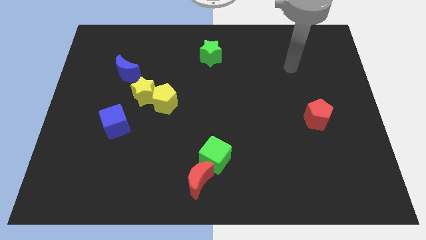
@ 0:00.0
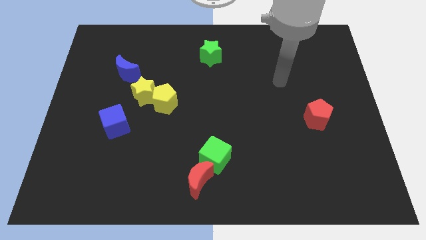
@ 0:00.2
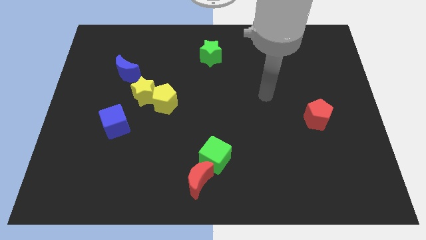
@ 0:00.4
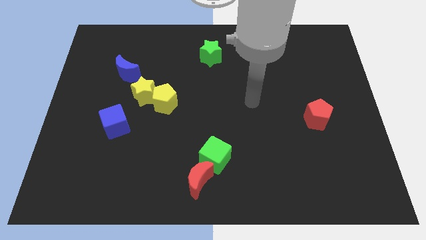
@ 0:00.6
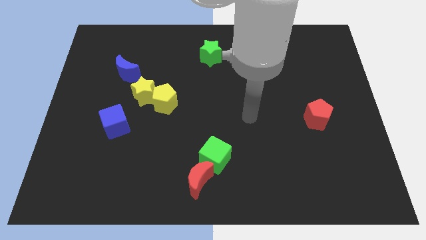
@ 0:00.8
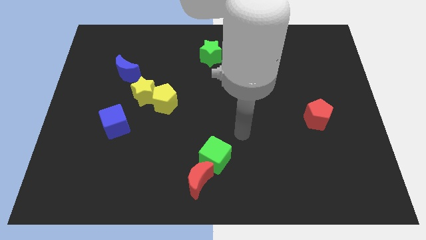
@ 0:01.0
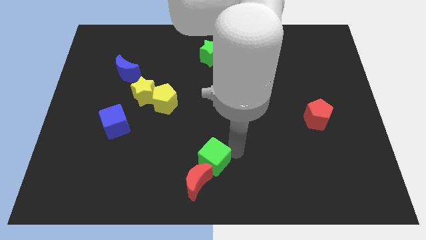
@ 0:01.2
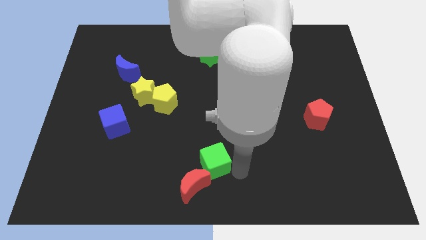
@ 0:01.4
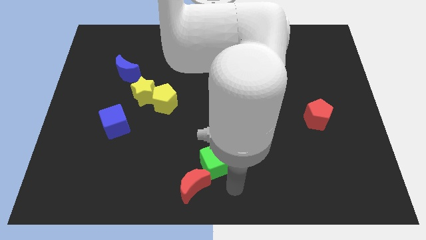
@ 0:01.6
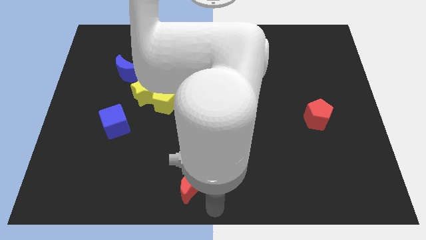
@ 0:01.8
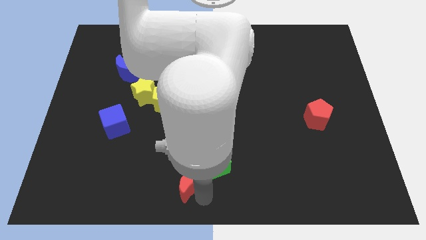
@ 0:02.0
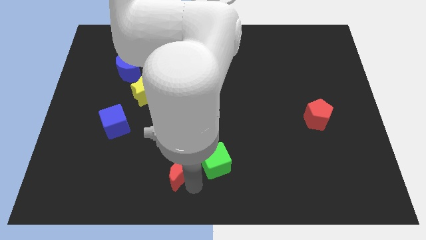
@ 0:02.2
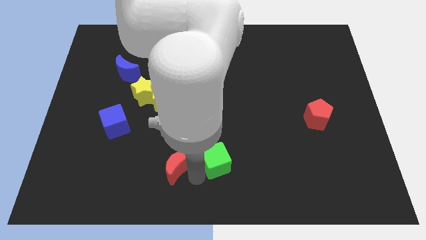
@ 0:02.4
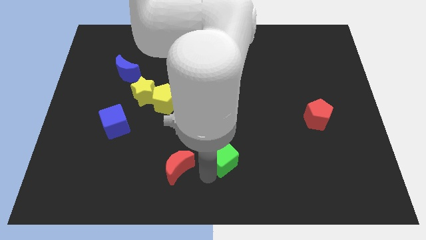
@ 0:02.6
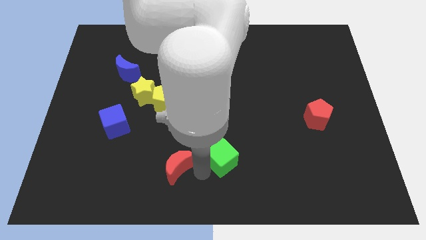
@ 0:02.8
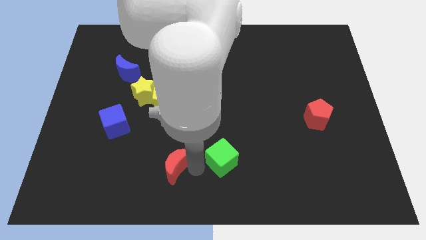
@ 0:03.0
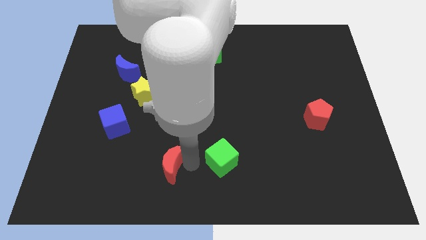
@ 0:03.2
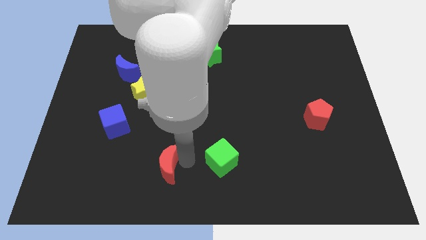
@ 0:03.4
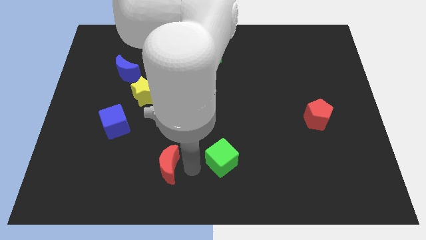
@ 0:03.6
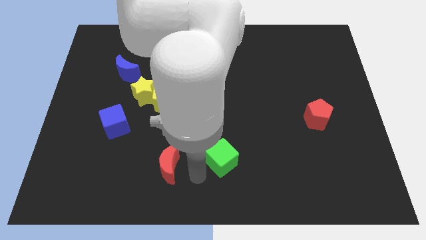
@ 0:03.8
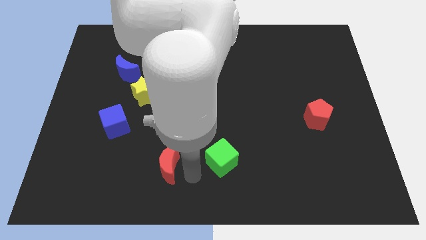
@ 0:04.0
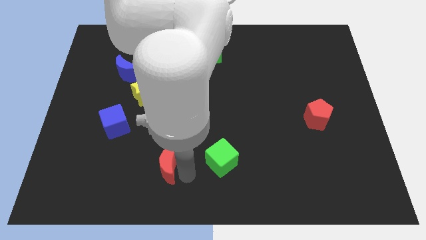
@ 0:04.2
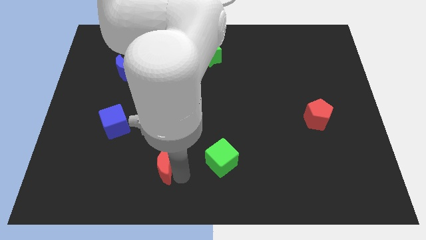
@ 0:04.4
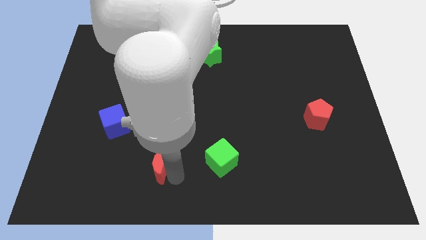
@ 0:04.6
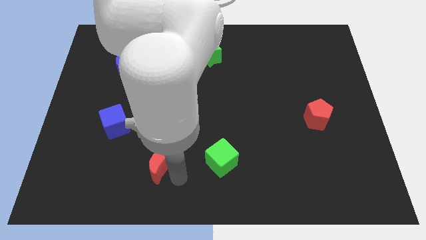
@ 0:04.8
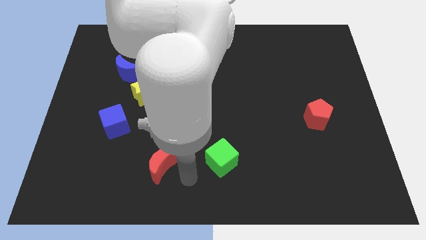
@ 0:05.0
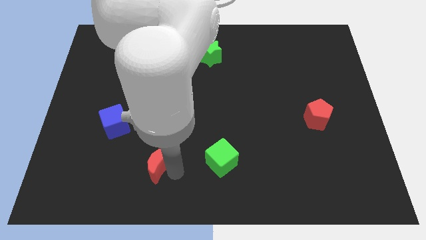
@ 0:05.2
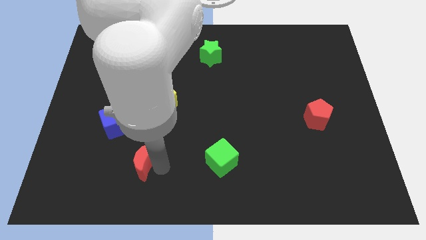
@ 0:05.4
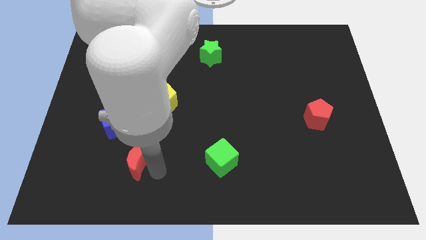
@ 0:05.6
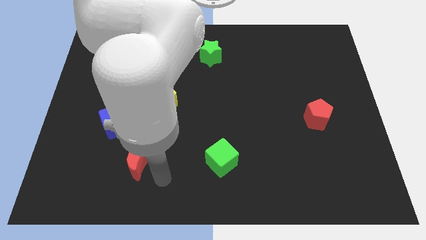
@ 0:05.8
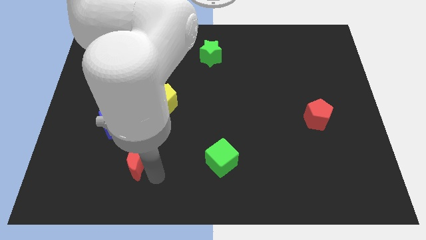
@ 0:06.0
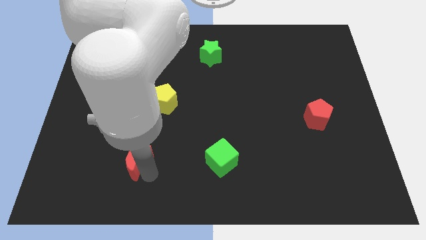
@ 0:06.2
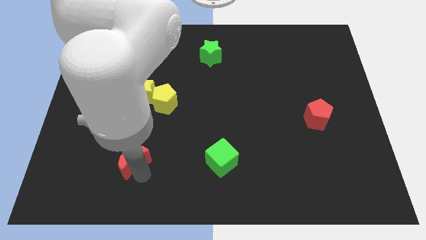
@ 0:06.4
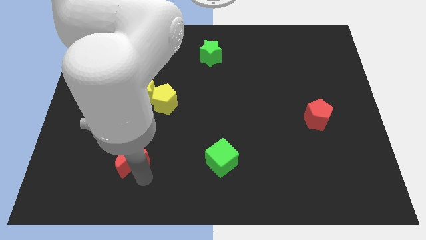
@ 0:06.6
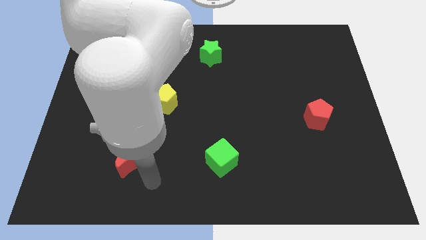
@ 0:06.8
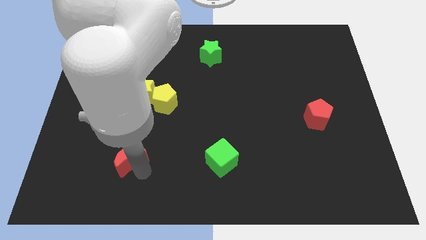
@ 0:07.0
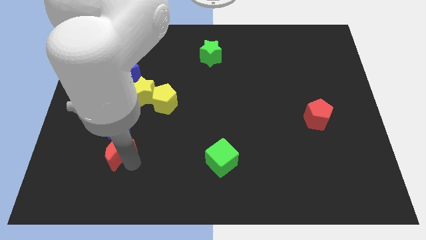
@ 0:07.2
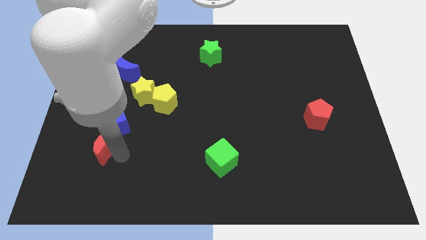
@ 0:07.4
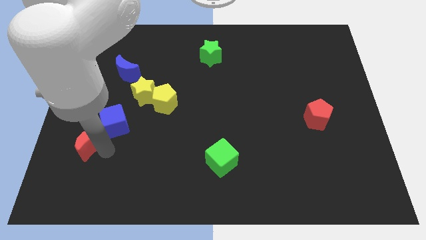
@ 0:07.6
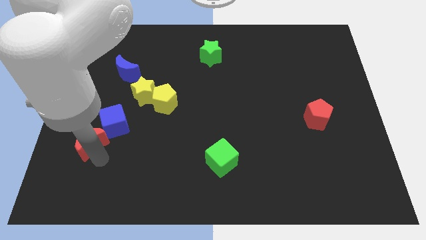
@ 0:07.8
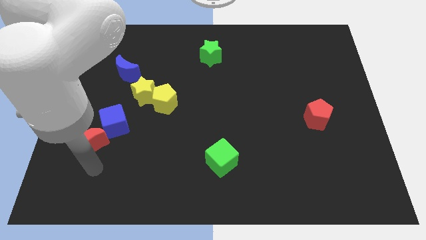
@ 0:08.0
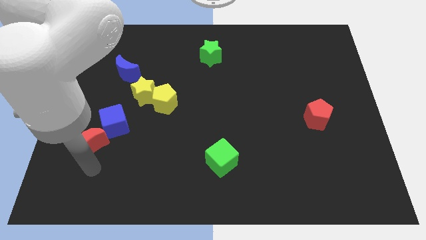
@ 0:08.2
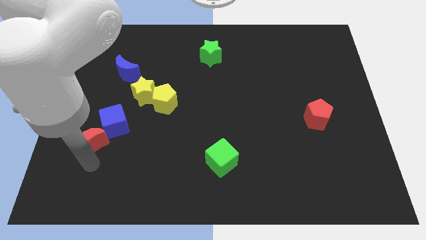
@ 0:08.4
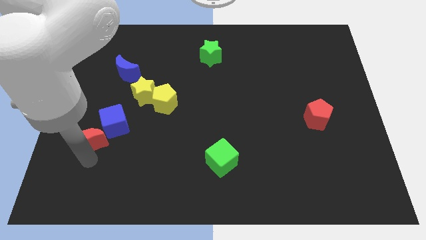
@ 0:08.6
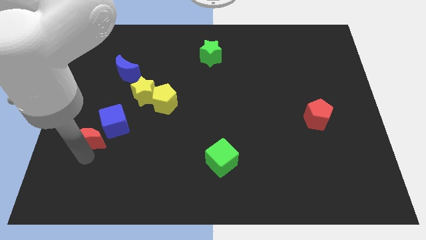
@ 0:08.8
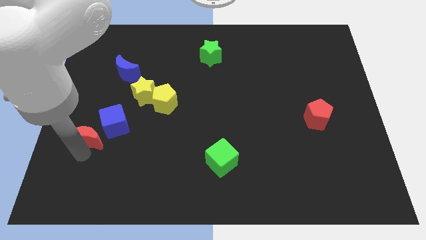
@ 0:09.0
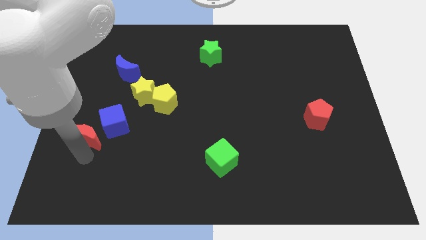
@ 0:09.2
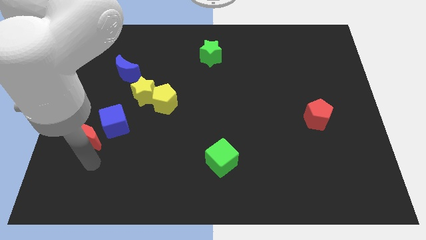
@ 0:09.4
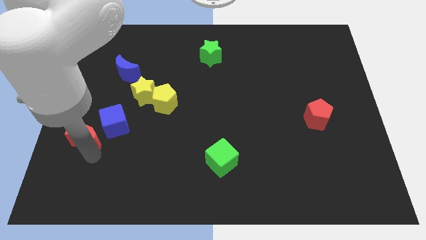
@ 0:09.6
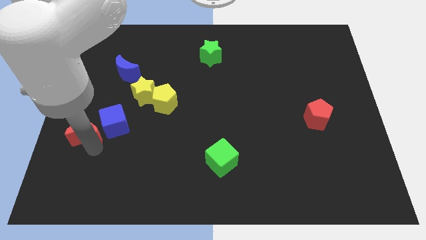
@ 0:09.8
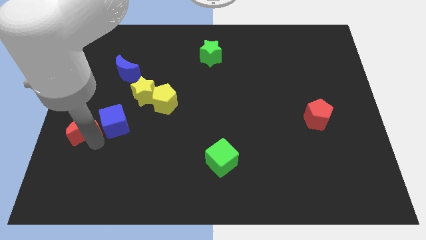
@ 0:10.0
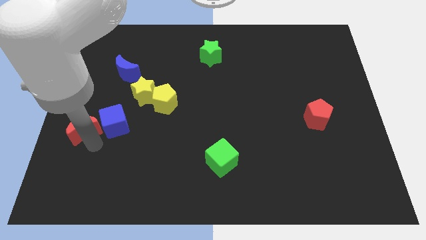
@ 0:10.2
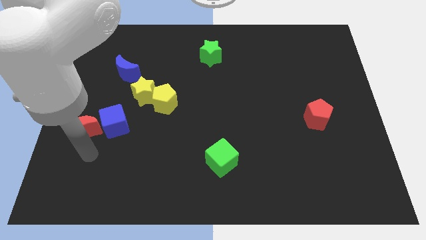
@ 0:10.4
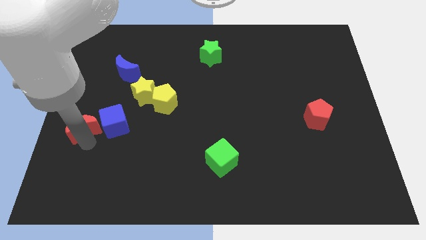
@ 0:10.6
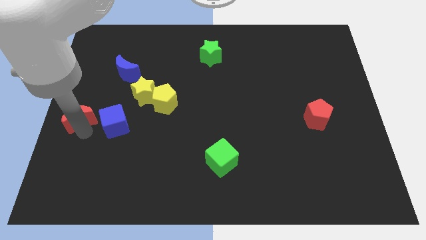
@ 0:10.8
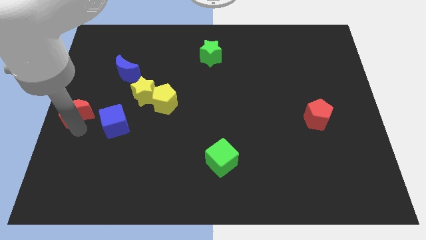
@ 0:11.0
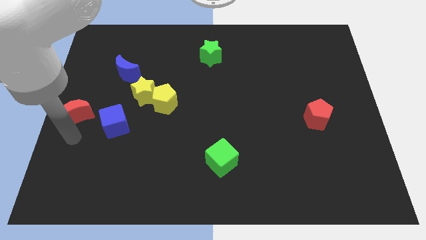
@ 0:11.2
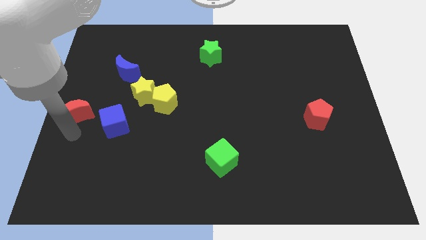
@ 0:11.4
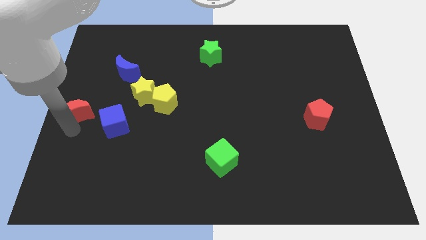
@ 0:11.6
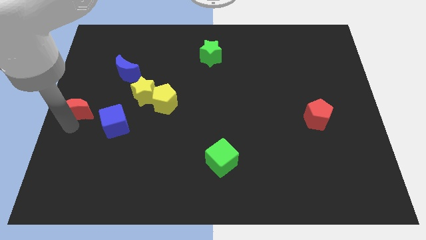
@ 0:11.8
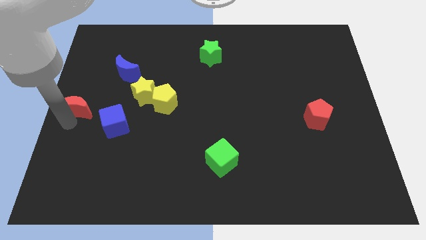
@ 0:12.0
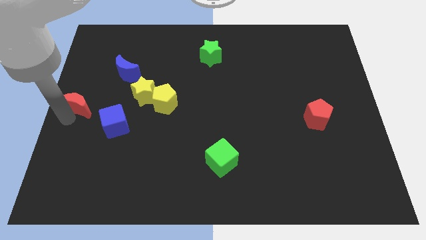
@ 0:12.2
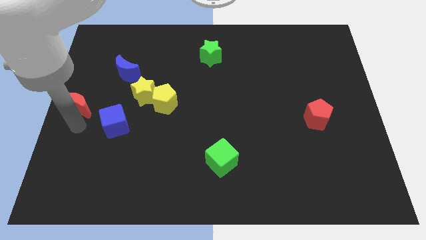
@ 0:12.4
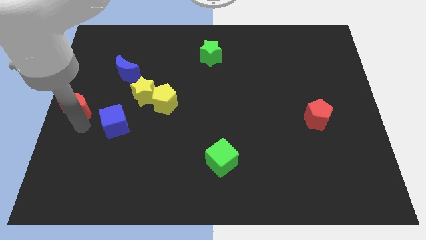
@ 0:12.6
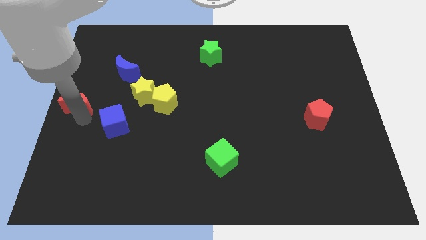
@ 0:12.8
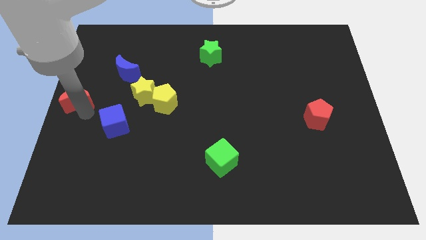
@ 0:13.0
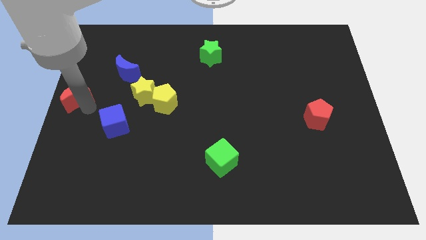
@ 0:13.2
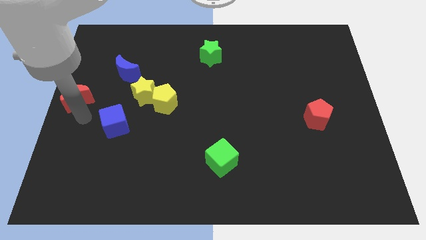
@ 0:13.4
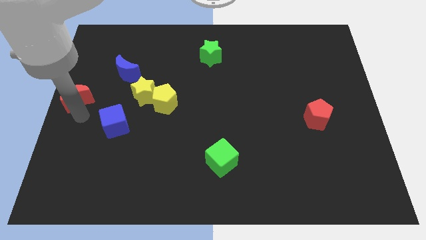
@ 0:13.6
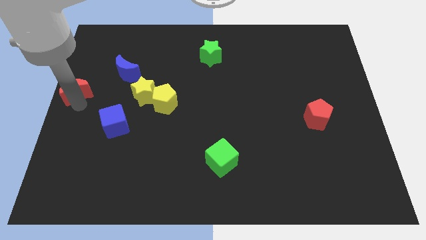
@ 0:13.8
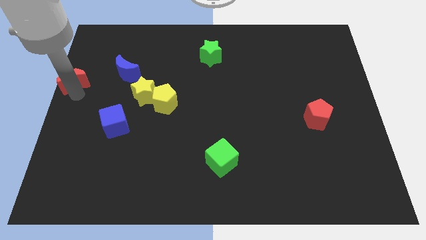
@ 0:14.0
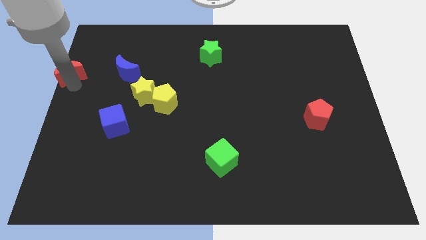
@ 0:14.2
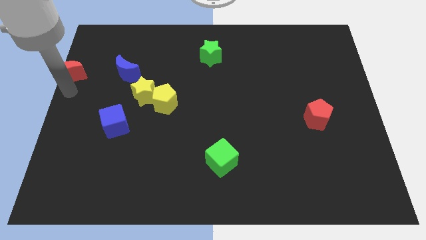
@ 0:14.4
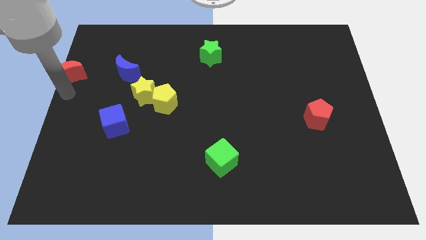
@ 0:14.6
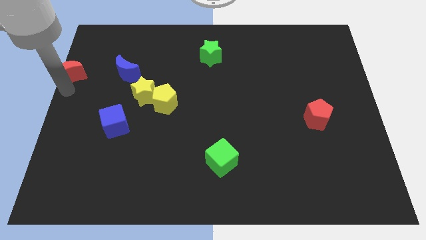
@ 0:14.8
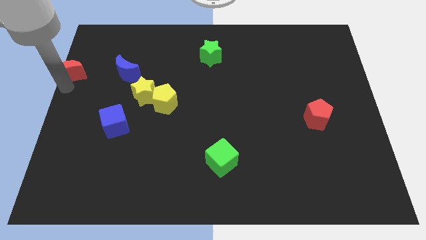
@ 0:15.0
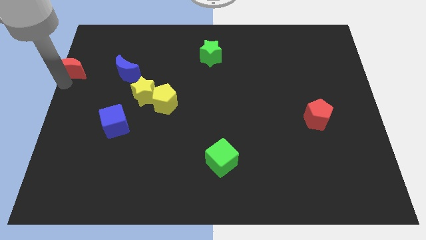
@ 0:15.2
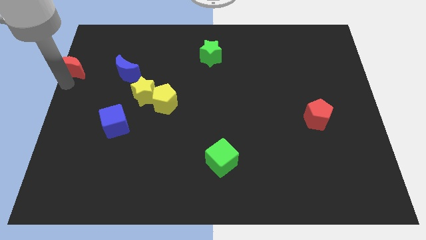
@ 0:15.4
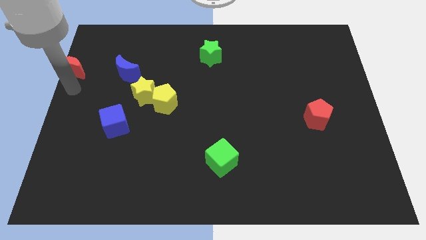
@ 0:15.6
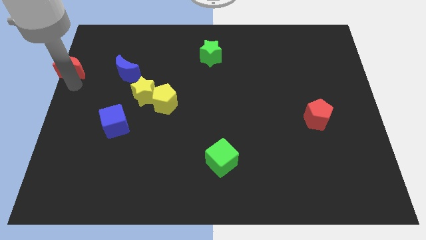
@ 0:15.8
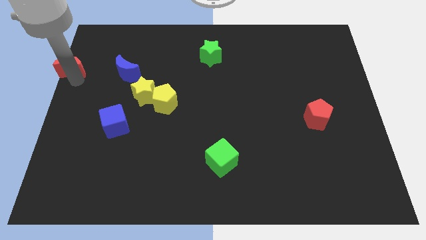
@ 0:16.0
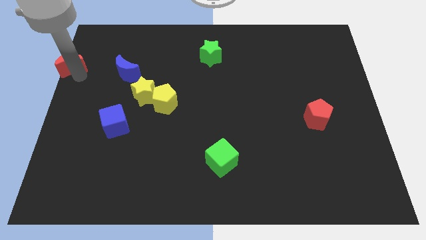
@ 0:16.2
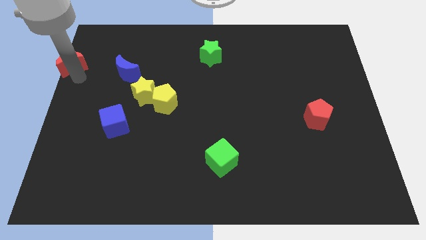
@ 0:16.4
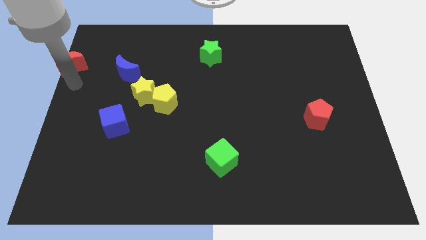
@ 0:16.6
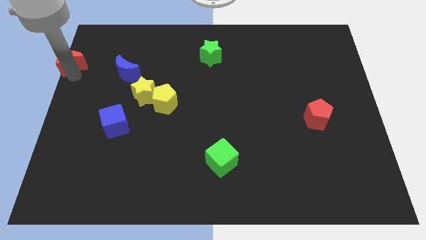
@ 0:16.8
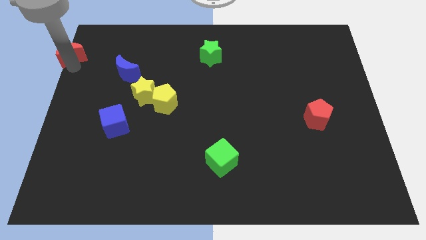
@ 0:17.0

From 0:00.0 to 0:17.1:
put the red moon to the top left corner
